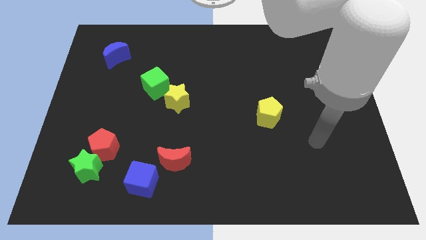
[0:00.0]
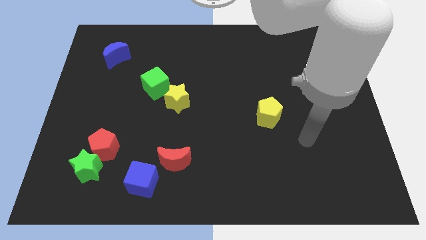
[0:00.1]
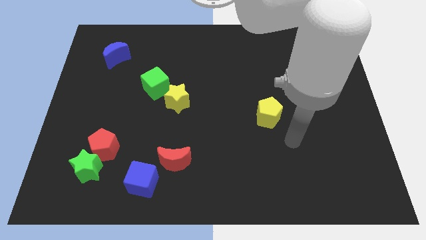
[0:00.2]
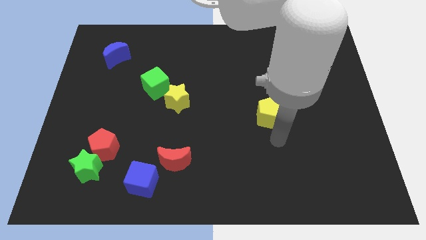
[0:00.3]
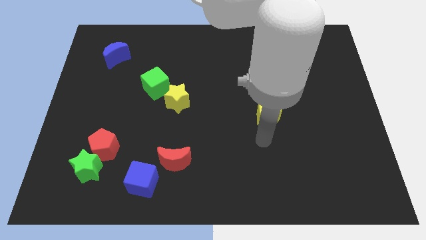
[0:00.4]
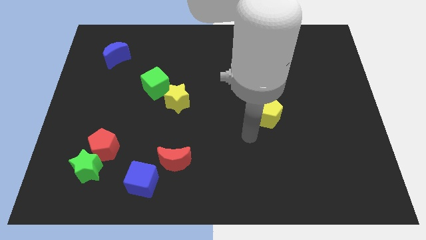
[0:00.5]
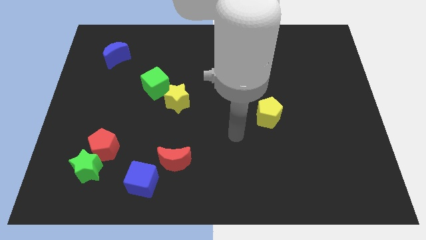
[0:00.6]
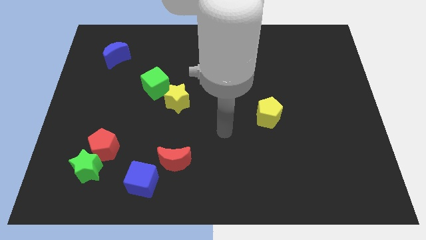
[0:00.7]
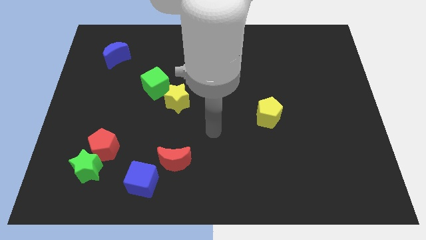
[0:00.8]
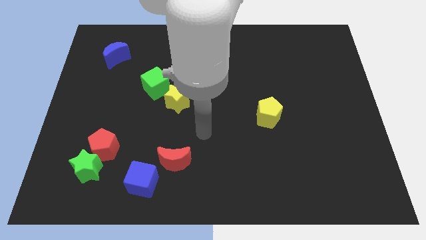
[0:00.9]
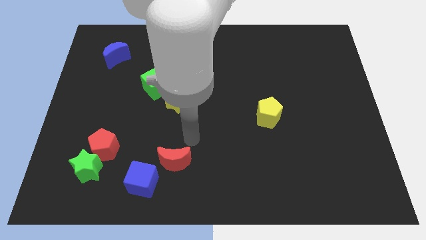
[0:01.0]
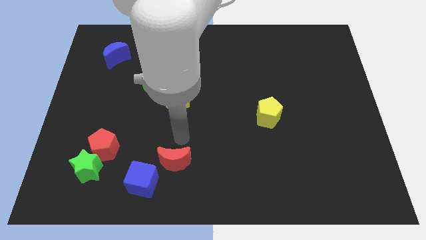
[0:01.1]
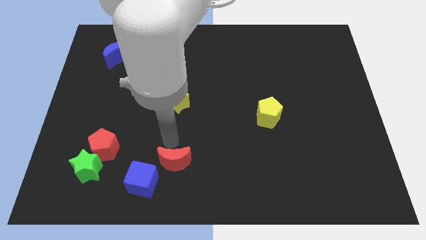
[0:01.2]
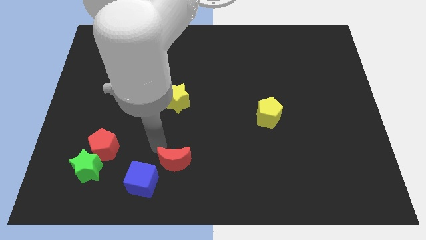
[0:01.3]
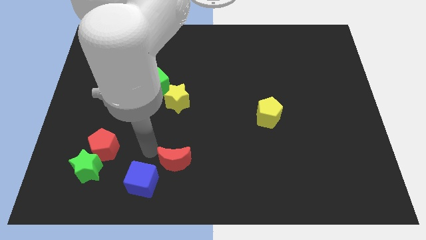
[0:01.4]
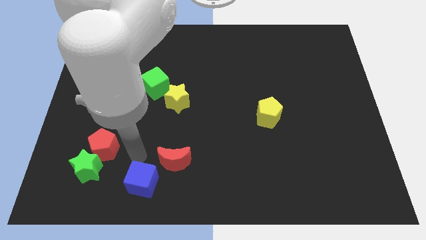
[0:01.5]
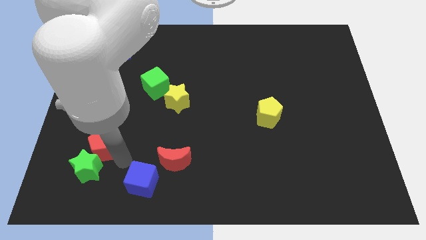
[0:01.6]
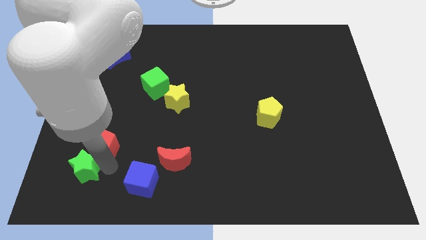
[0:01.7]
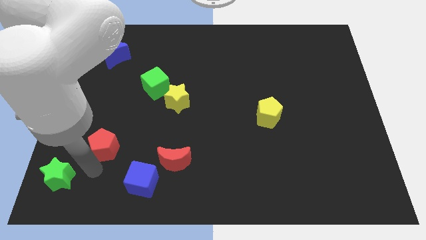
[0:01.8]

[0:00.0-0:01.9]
move the red pentagon away from the green star

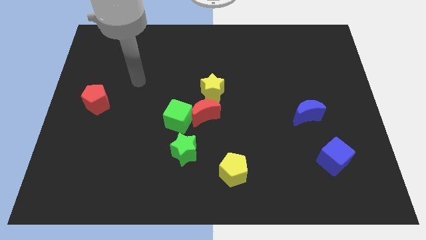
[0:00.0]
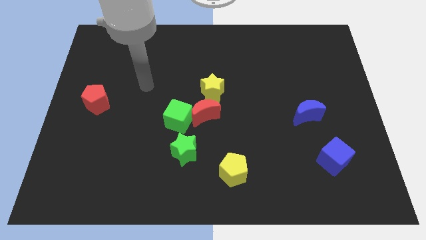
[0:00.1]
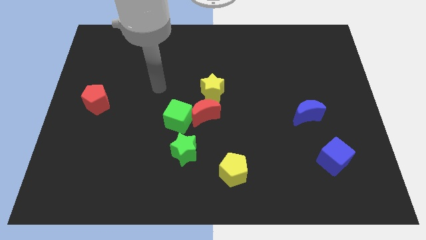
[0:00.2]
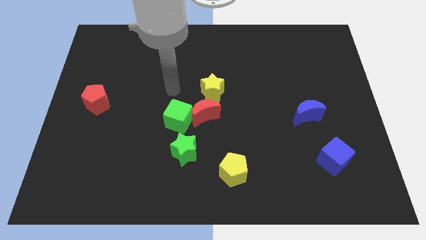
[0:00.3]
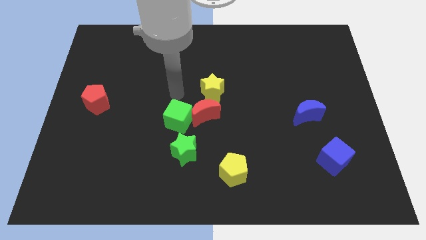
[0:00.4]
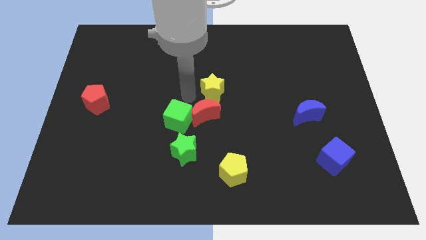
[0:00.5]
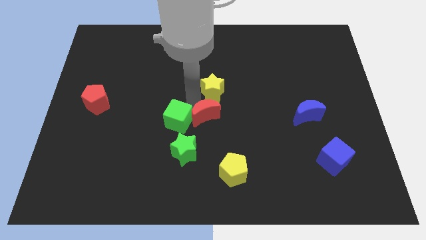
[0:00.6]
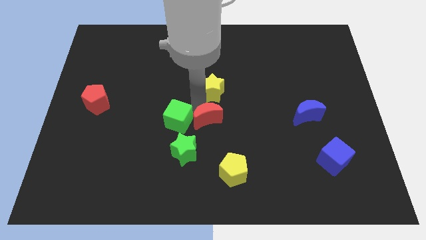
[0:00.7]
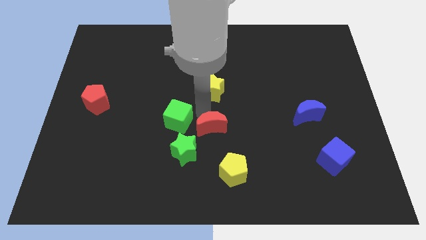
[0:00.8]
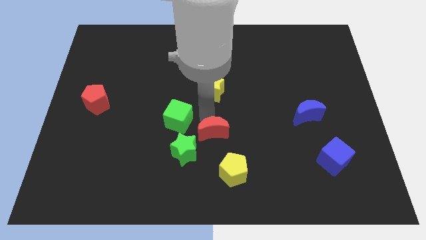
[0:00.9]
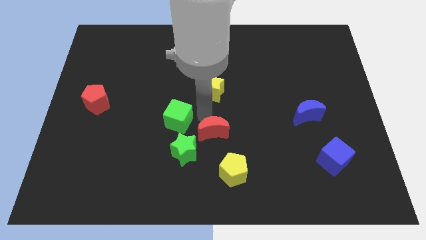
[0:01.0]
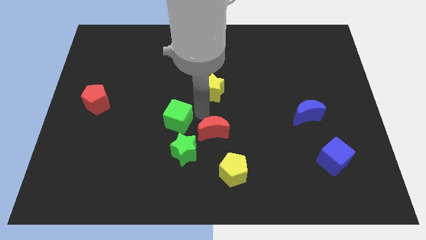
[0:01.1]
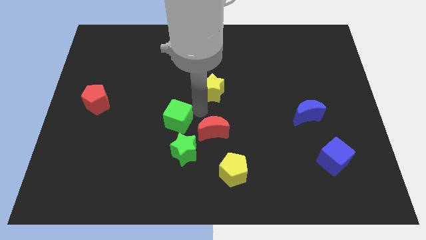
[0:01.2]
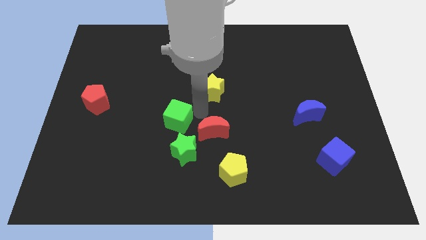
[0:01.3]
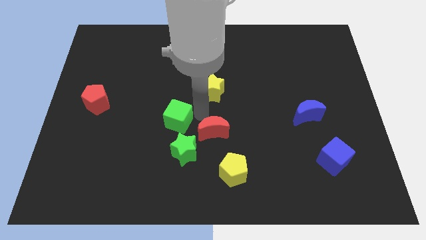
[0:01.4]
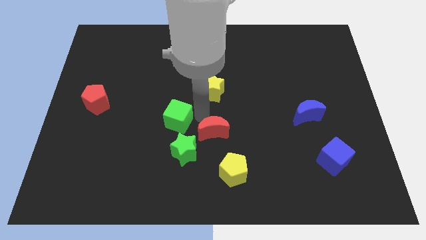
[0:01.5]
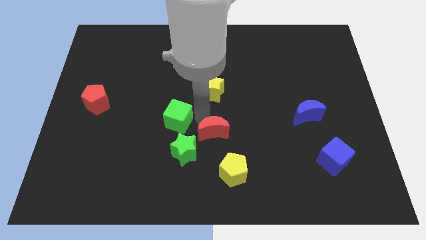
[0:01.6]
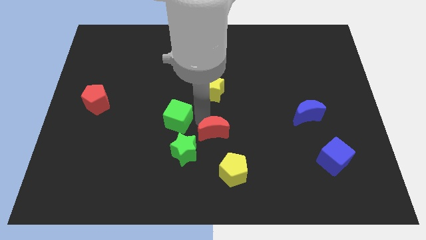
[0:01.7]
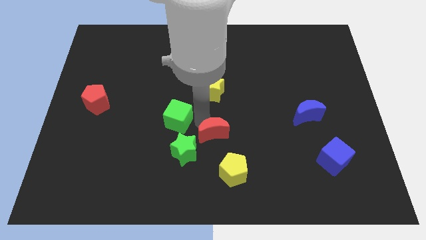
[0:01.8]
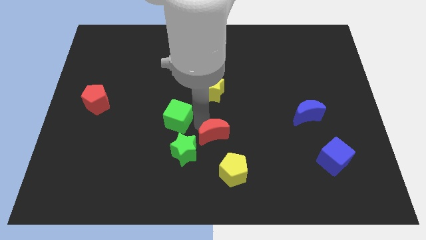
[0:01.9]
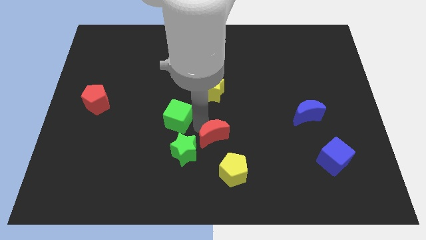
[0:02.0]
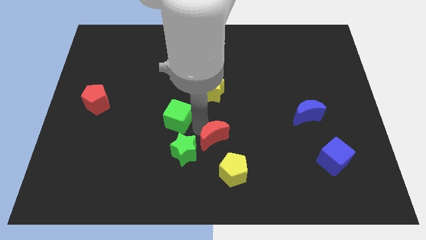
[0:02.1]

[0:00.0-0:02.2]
pull the red moon apart from the green cube and yellow star

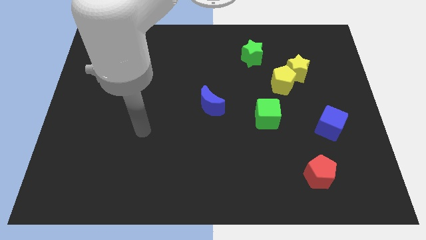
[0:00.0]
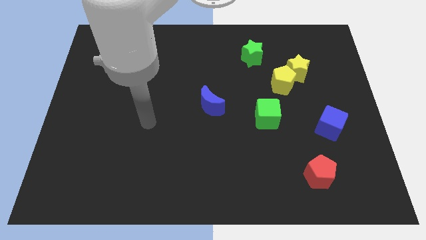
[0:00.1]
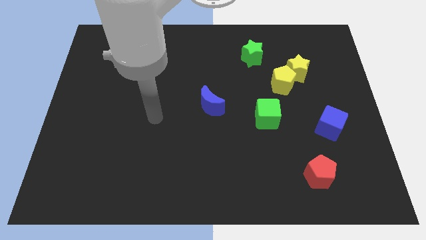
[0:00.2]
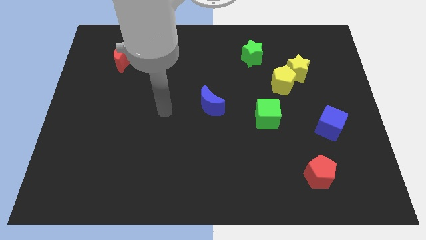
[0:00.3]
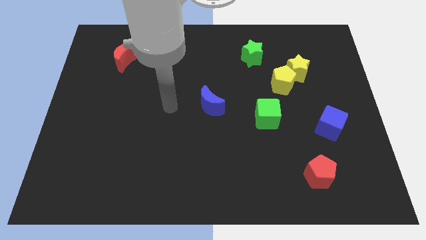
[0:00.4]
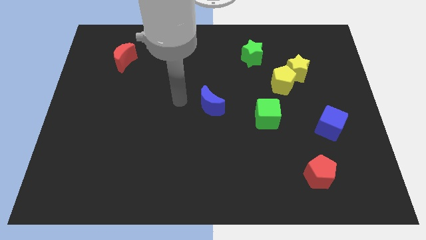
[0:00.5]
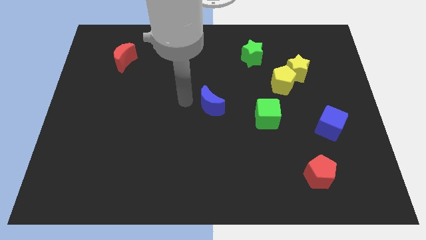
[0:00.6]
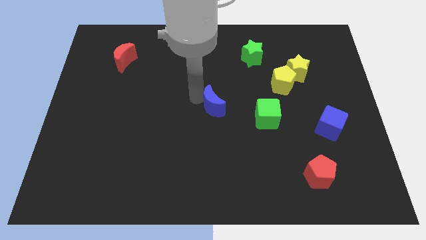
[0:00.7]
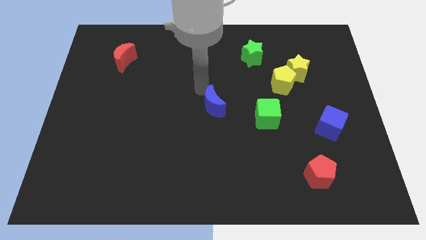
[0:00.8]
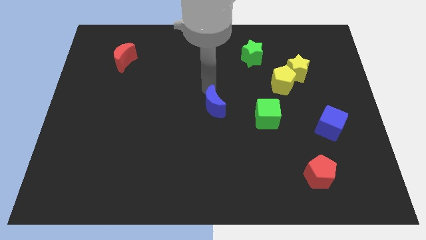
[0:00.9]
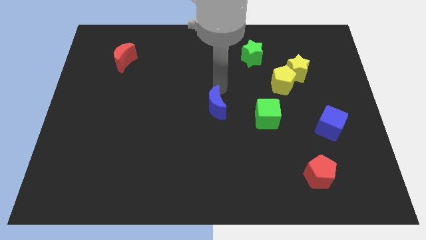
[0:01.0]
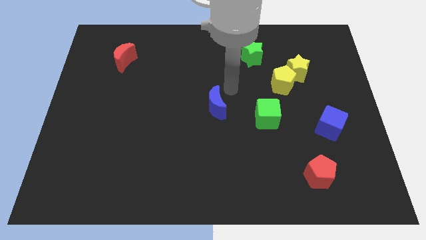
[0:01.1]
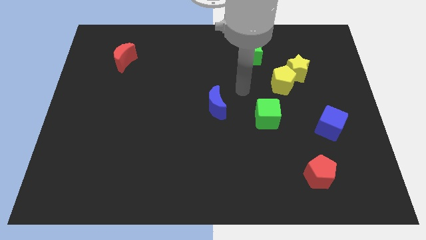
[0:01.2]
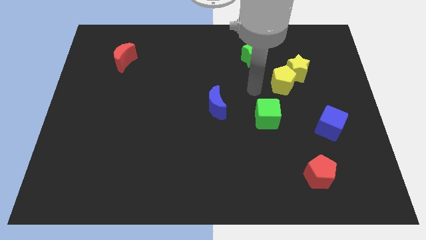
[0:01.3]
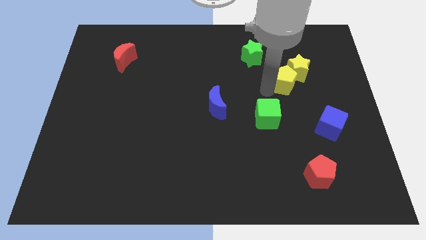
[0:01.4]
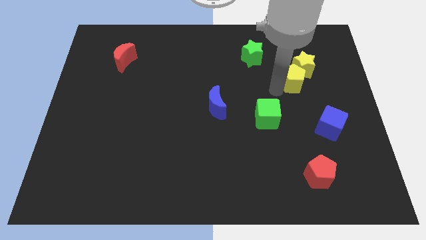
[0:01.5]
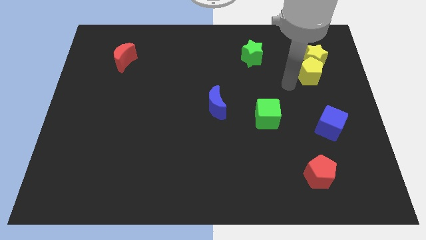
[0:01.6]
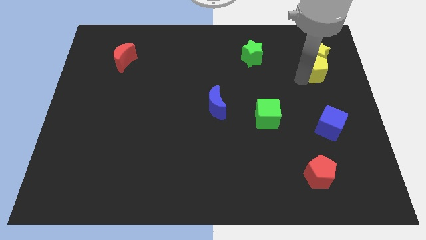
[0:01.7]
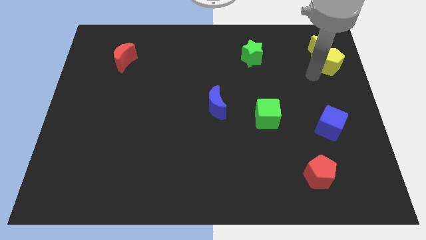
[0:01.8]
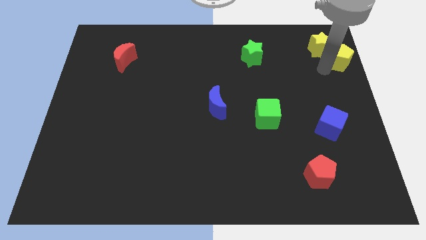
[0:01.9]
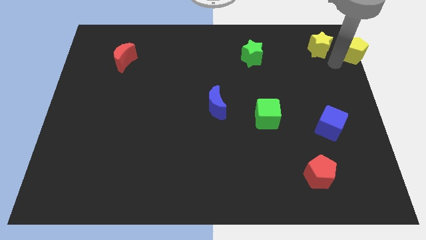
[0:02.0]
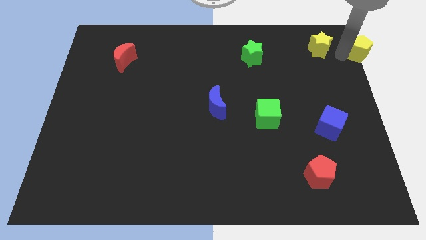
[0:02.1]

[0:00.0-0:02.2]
move the yellow star away from the yellow pentagon

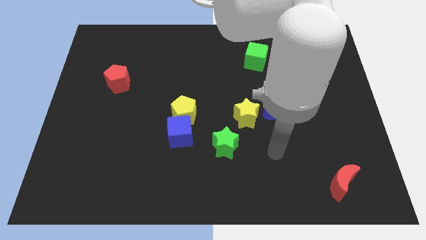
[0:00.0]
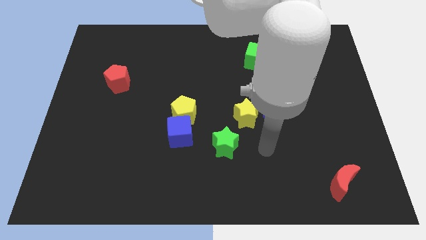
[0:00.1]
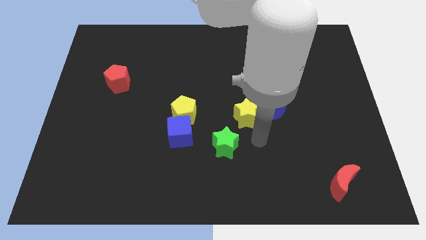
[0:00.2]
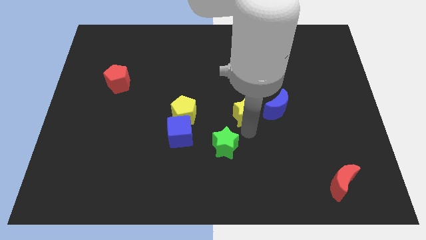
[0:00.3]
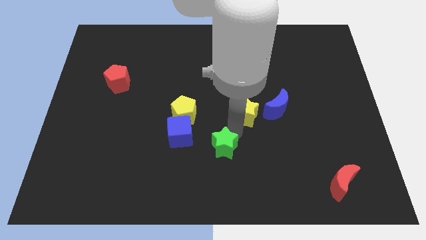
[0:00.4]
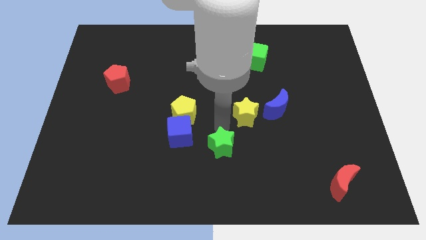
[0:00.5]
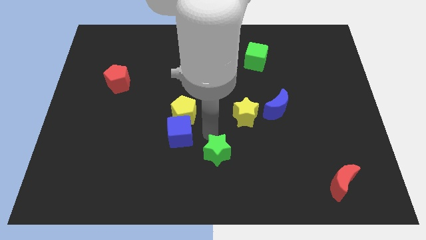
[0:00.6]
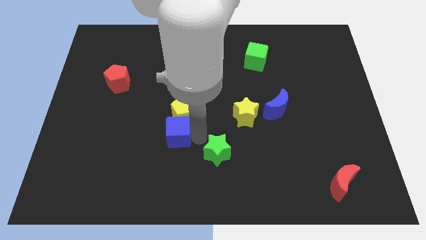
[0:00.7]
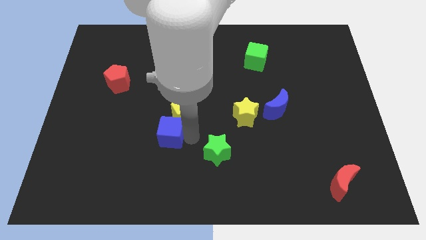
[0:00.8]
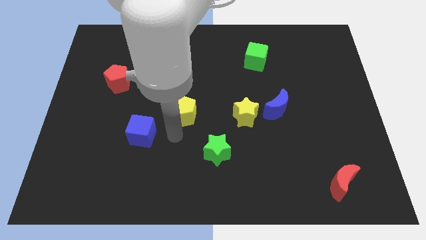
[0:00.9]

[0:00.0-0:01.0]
move the yellow pentagon away from the blue cube

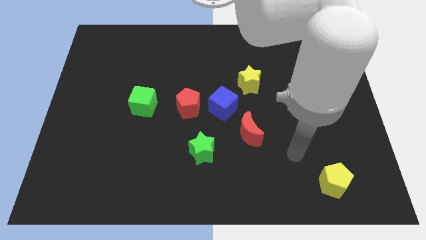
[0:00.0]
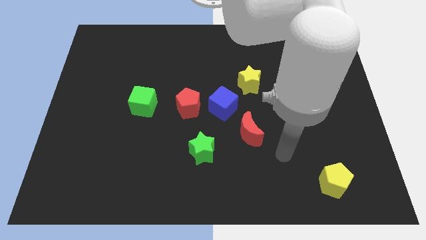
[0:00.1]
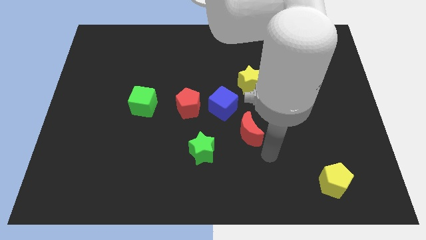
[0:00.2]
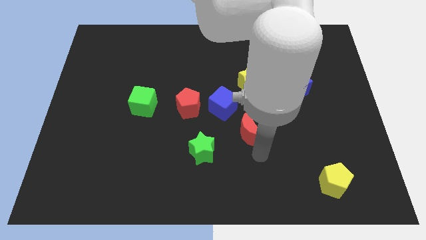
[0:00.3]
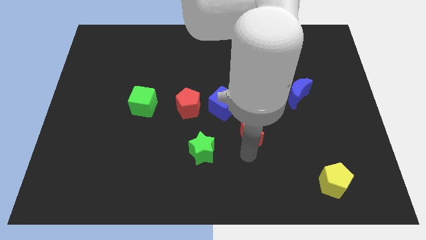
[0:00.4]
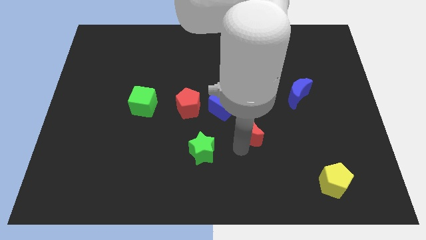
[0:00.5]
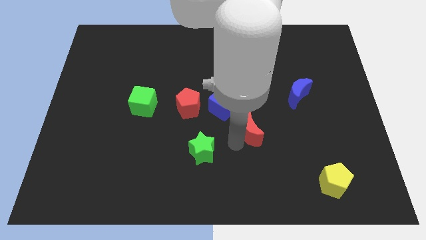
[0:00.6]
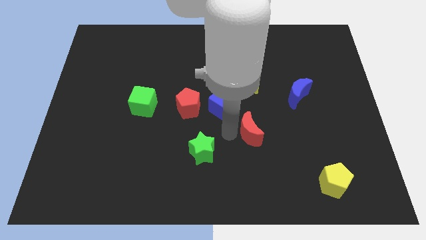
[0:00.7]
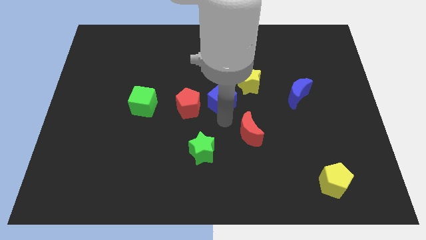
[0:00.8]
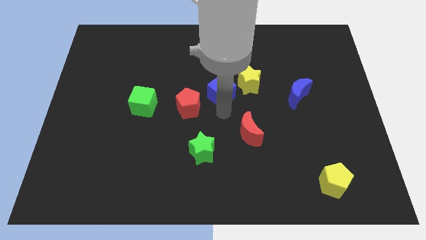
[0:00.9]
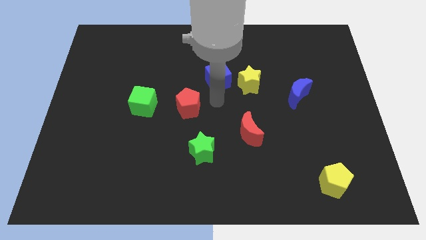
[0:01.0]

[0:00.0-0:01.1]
separate the red pentagon from the blue cube

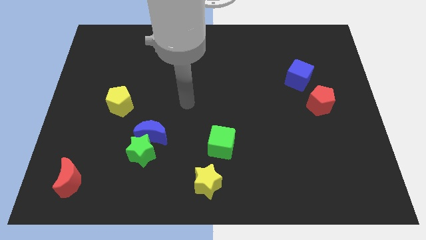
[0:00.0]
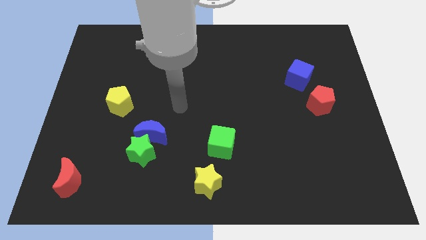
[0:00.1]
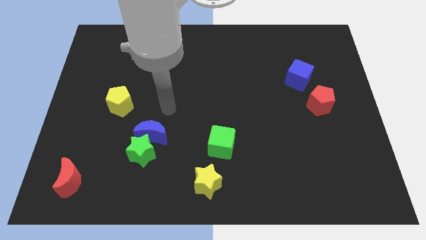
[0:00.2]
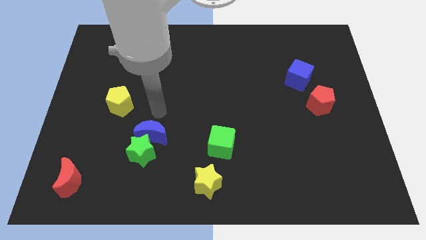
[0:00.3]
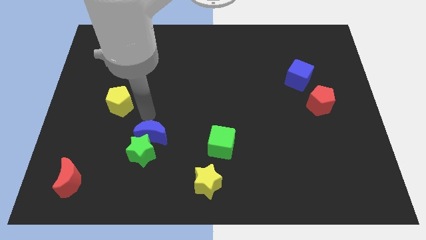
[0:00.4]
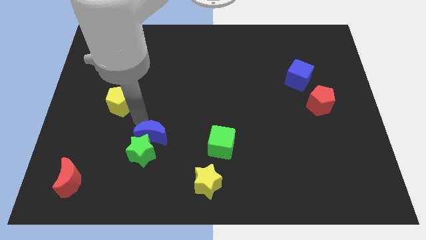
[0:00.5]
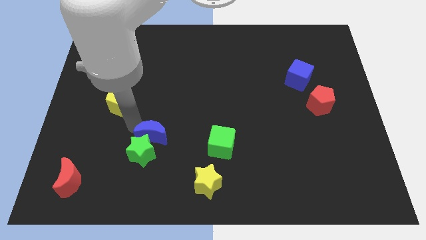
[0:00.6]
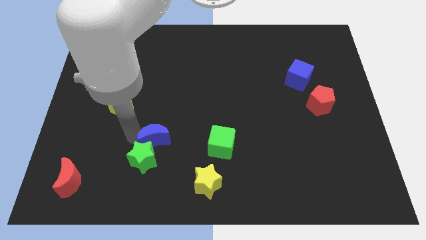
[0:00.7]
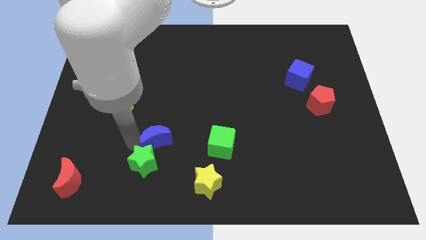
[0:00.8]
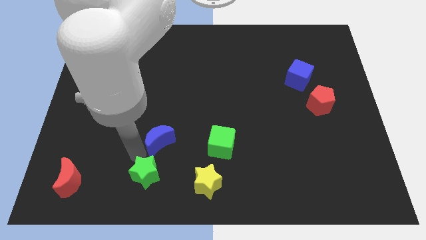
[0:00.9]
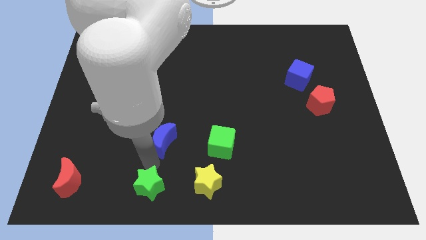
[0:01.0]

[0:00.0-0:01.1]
separate the blue moon from the green star
